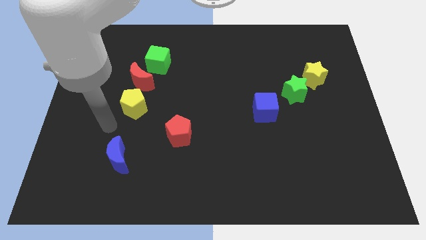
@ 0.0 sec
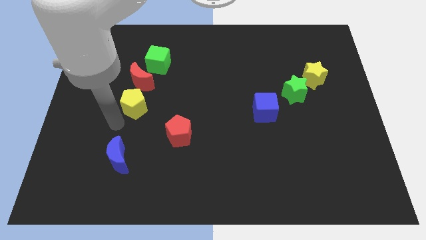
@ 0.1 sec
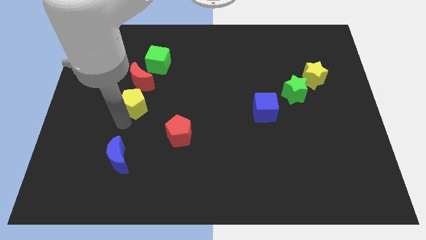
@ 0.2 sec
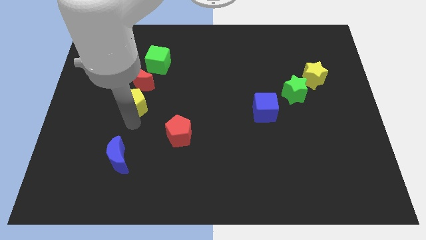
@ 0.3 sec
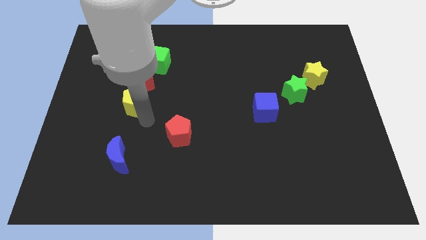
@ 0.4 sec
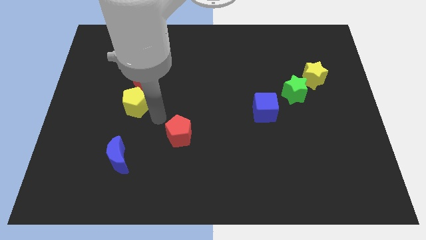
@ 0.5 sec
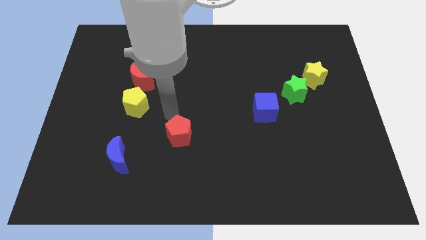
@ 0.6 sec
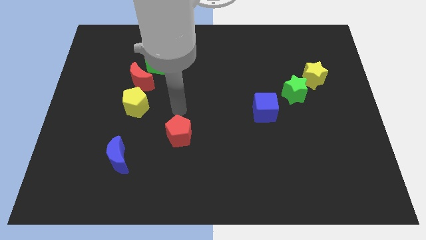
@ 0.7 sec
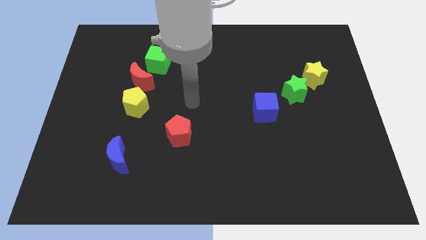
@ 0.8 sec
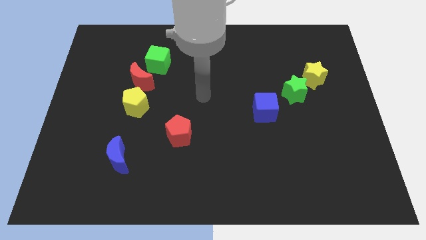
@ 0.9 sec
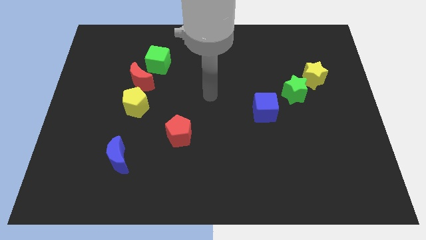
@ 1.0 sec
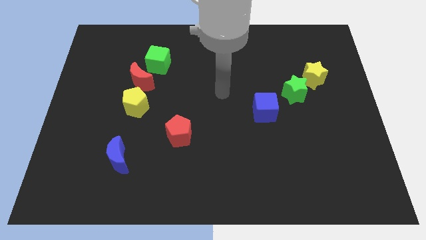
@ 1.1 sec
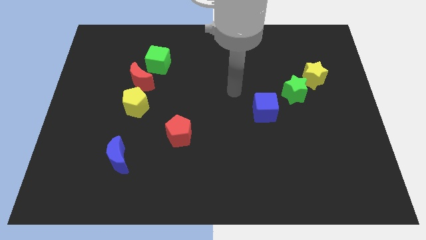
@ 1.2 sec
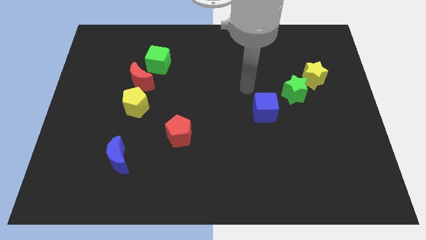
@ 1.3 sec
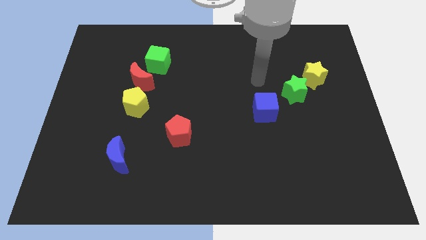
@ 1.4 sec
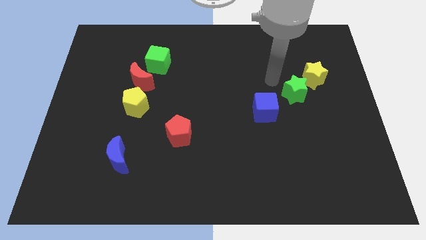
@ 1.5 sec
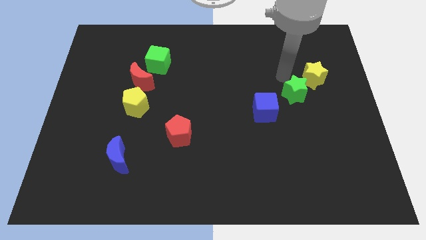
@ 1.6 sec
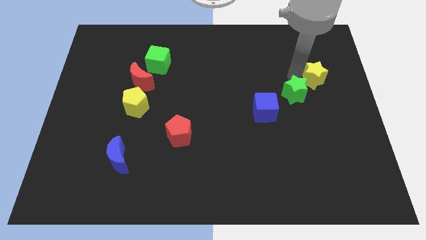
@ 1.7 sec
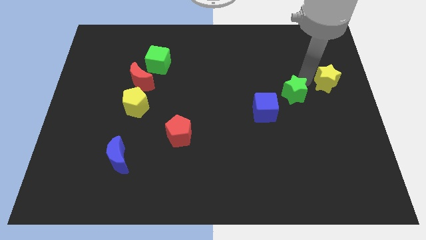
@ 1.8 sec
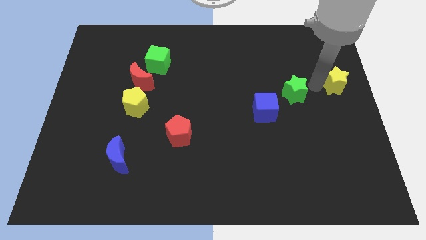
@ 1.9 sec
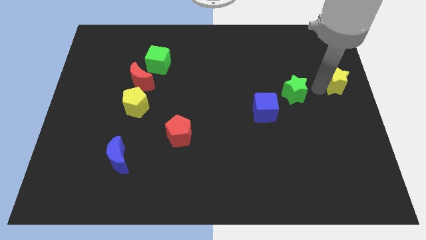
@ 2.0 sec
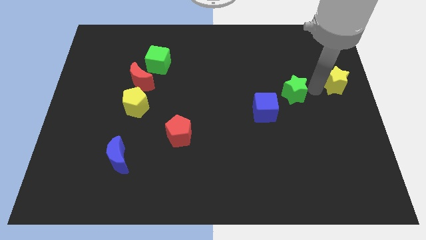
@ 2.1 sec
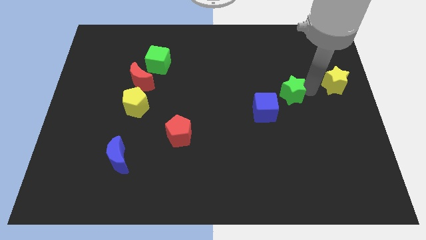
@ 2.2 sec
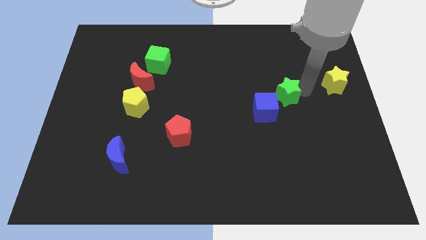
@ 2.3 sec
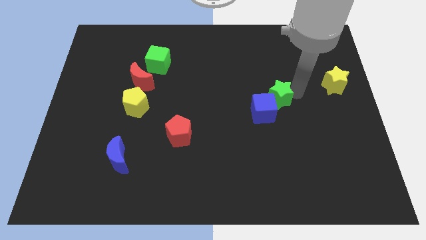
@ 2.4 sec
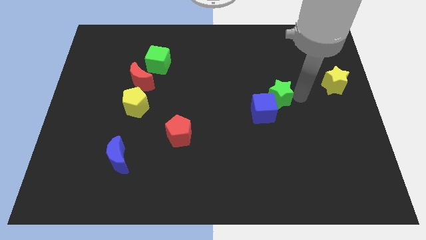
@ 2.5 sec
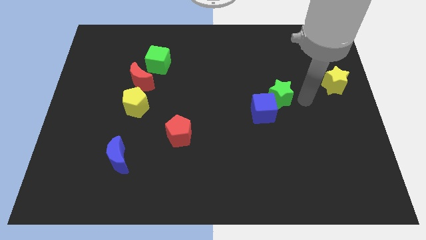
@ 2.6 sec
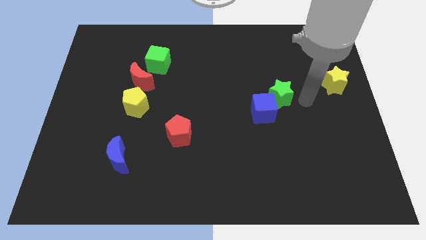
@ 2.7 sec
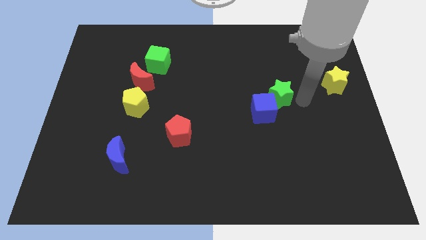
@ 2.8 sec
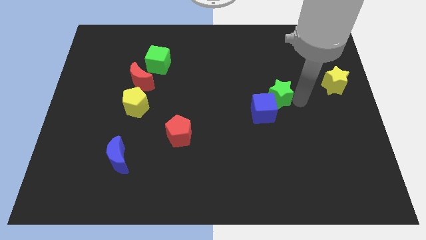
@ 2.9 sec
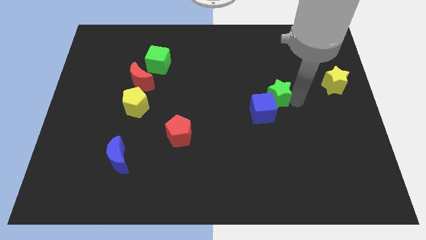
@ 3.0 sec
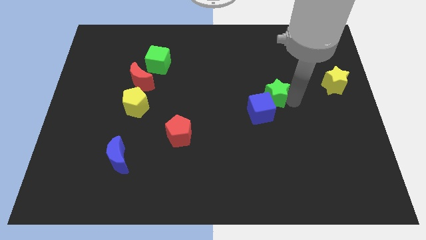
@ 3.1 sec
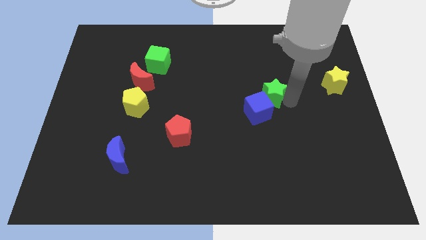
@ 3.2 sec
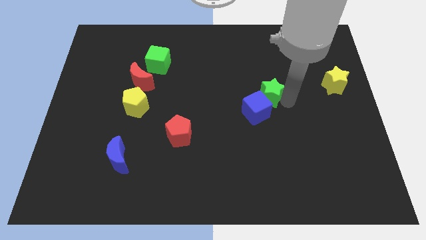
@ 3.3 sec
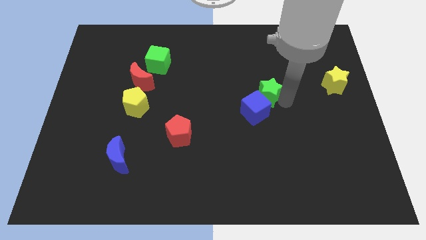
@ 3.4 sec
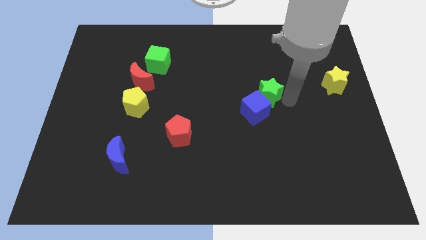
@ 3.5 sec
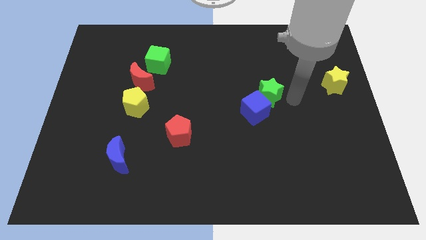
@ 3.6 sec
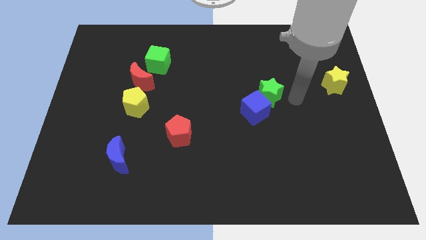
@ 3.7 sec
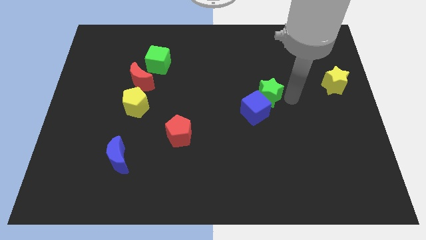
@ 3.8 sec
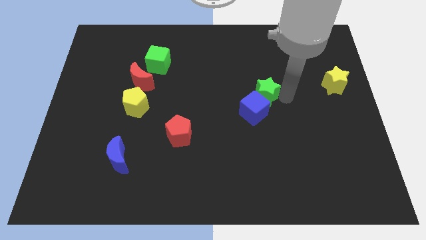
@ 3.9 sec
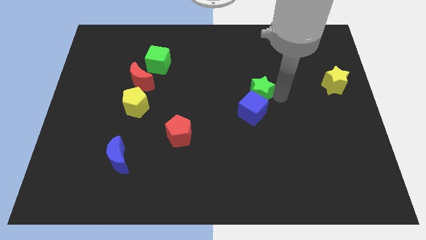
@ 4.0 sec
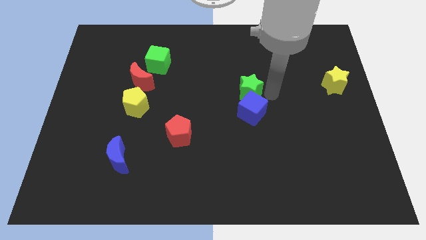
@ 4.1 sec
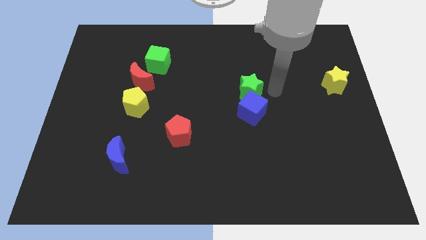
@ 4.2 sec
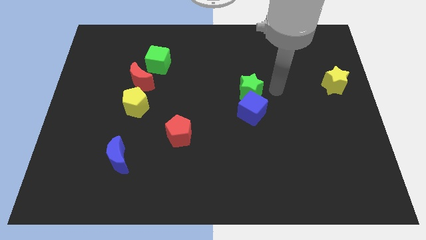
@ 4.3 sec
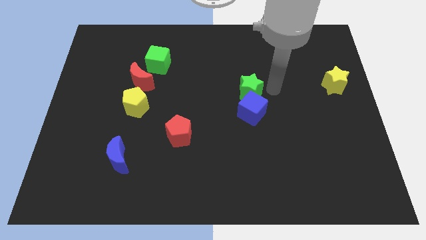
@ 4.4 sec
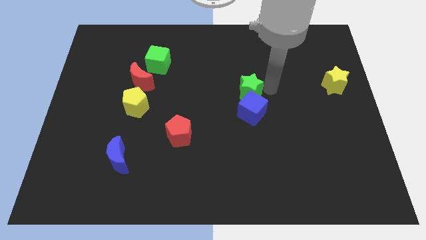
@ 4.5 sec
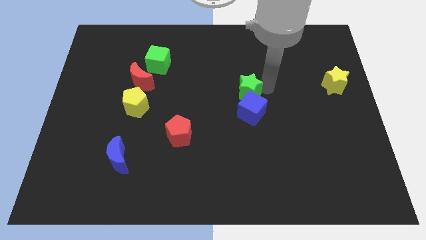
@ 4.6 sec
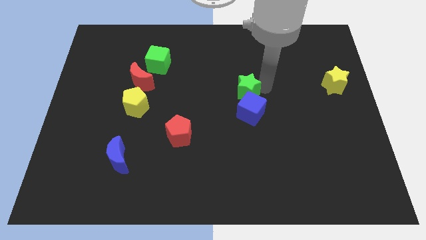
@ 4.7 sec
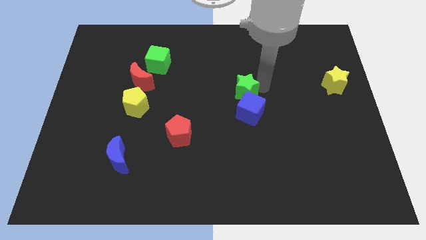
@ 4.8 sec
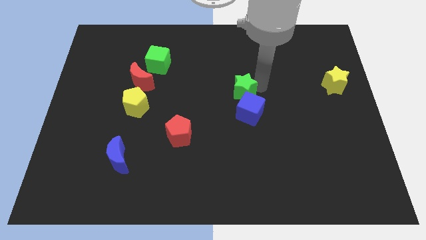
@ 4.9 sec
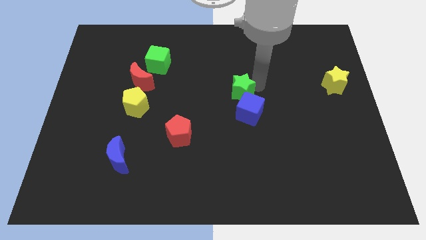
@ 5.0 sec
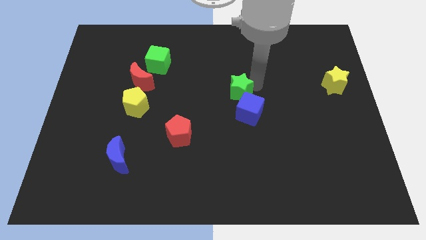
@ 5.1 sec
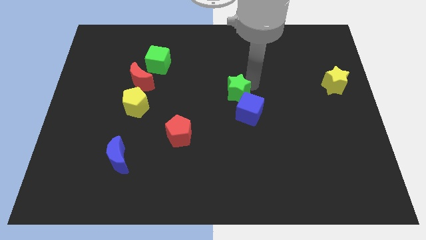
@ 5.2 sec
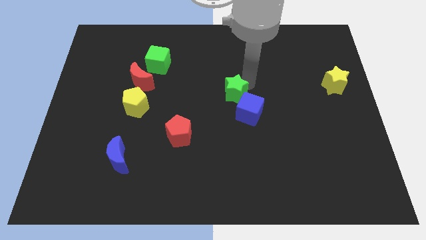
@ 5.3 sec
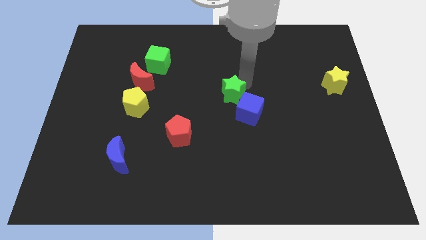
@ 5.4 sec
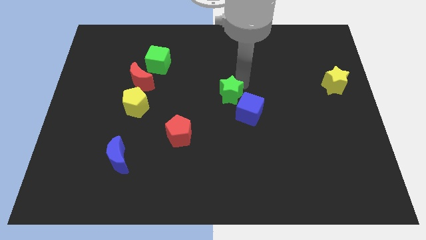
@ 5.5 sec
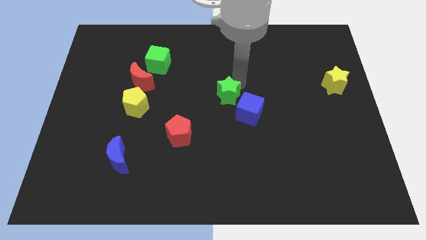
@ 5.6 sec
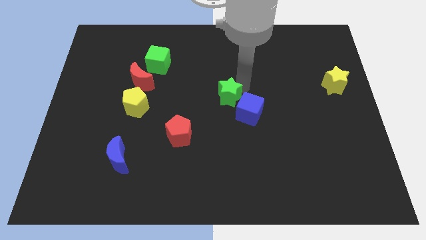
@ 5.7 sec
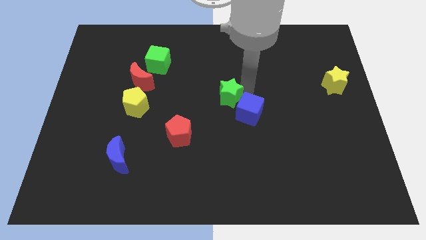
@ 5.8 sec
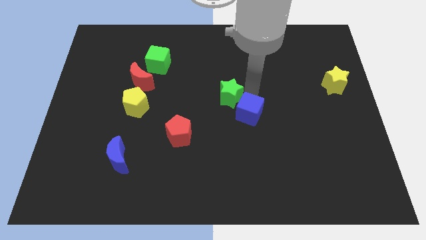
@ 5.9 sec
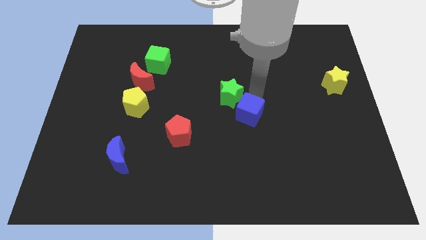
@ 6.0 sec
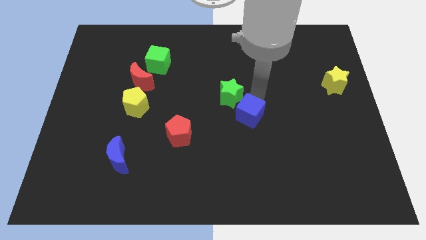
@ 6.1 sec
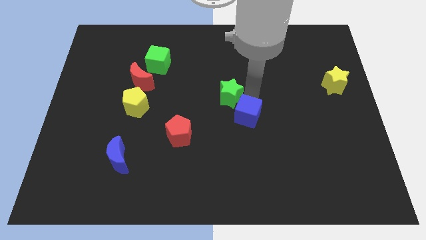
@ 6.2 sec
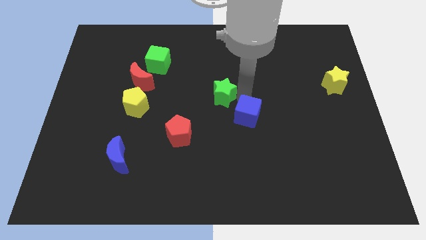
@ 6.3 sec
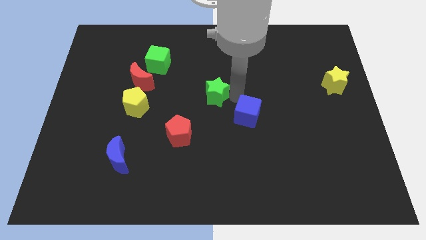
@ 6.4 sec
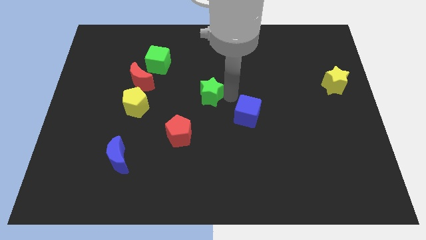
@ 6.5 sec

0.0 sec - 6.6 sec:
slide the green star left

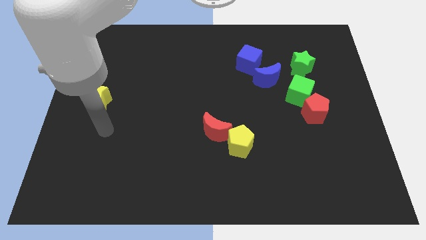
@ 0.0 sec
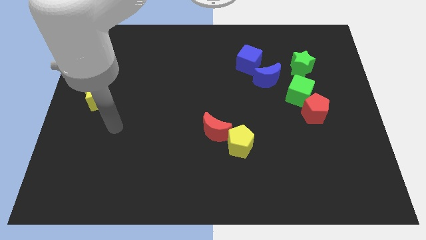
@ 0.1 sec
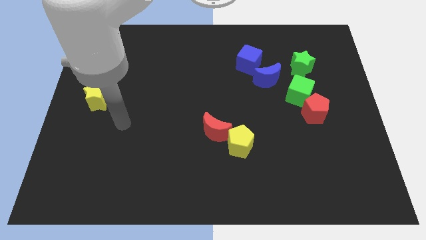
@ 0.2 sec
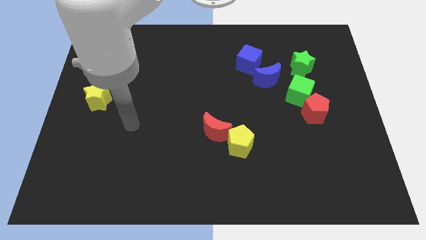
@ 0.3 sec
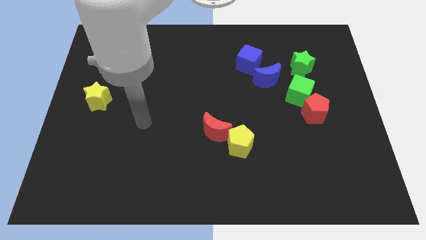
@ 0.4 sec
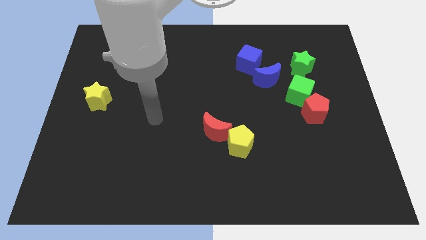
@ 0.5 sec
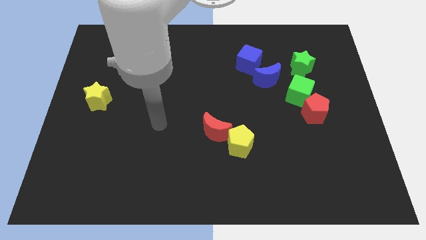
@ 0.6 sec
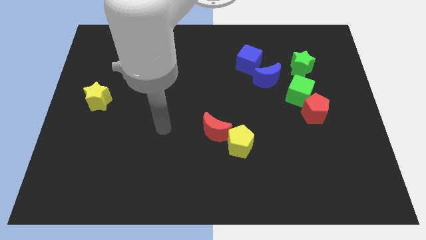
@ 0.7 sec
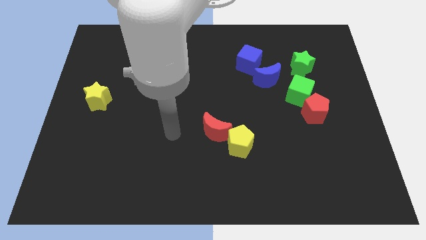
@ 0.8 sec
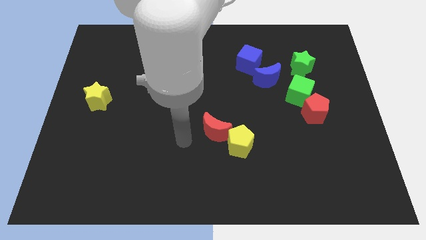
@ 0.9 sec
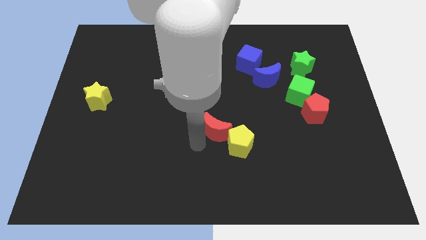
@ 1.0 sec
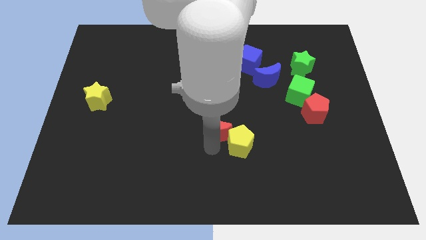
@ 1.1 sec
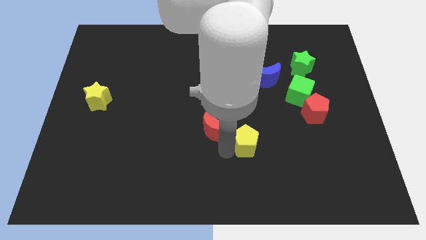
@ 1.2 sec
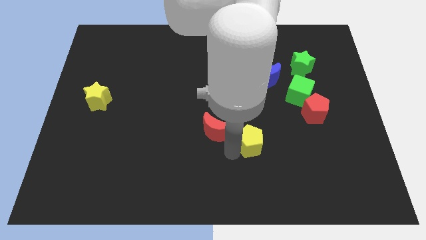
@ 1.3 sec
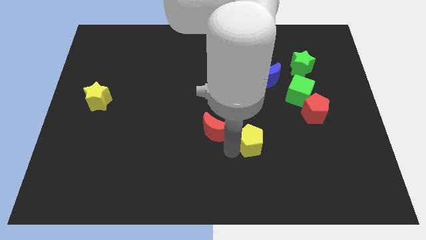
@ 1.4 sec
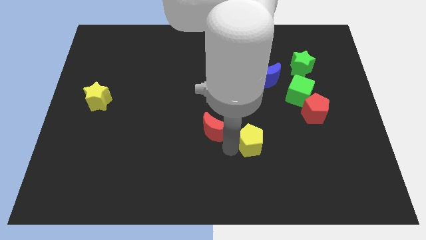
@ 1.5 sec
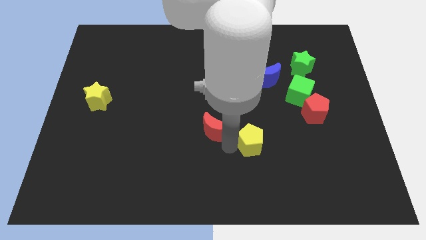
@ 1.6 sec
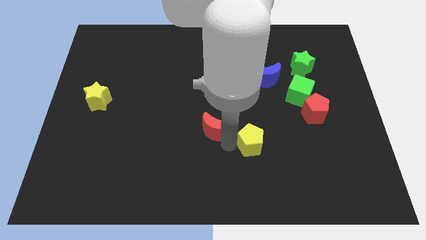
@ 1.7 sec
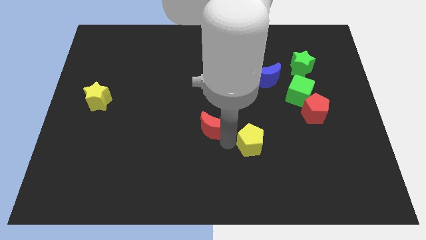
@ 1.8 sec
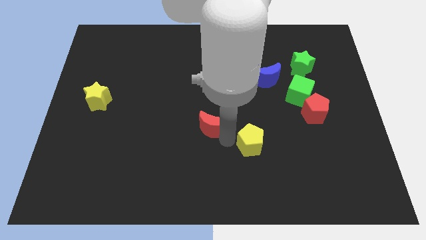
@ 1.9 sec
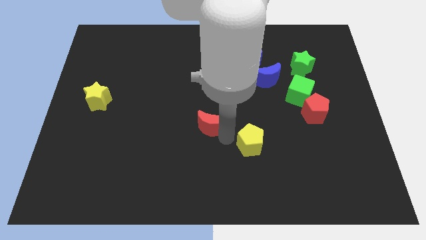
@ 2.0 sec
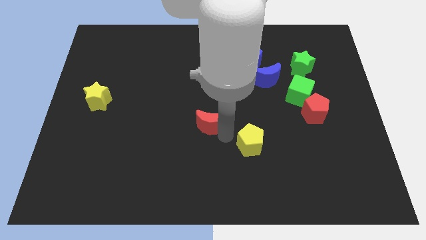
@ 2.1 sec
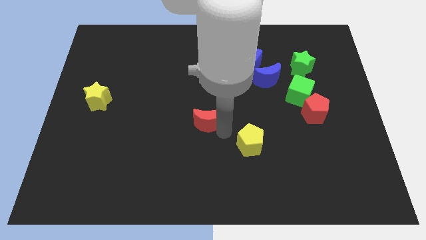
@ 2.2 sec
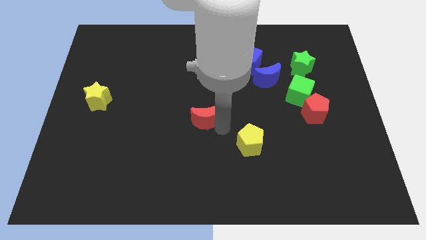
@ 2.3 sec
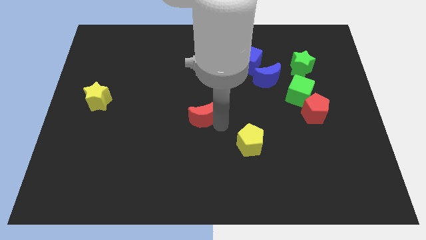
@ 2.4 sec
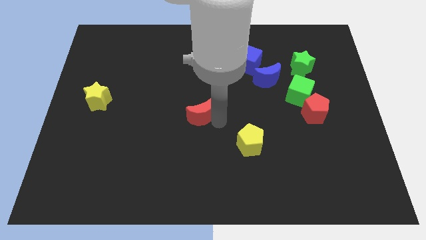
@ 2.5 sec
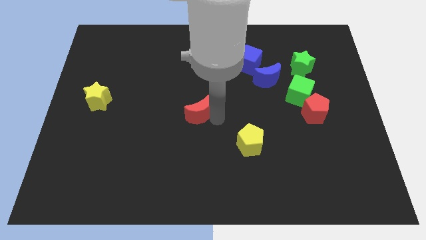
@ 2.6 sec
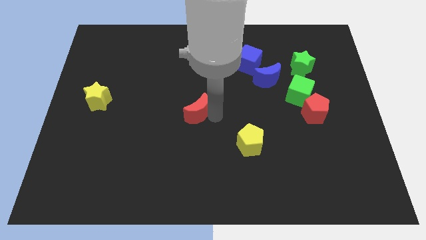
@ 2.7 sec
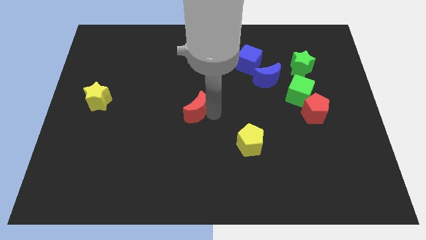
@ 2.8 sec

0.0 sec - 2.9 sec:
push the red moon upwards and to the left a bit
